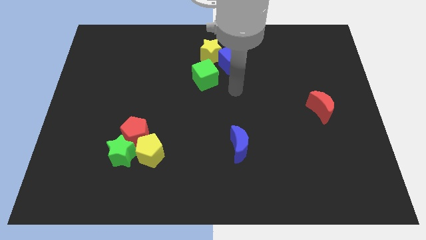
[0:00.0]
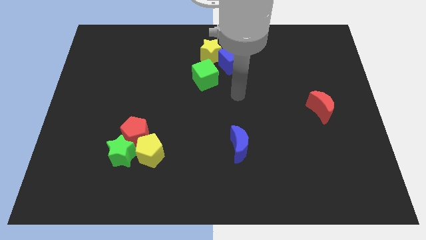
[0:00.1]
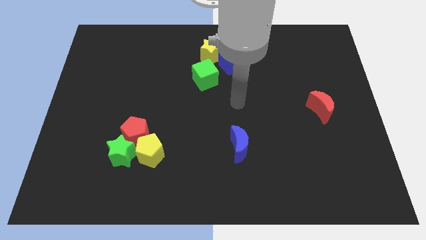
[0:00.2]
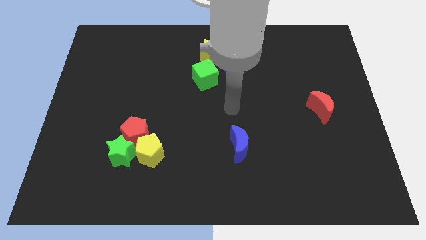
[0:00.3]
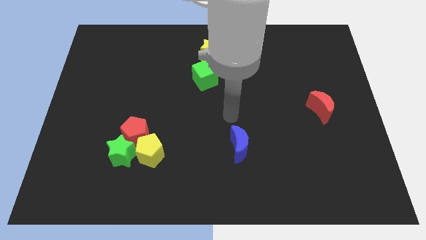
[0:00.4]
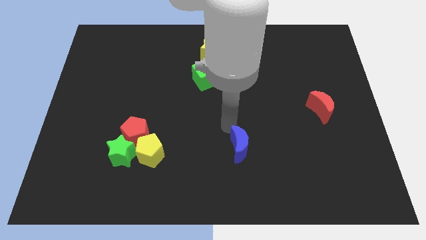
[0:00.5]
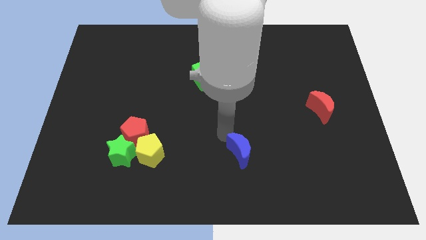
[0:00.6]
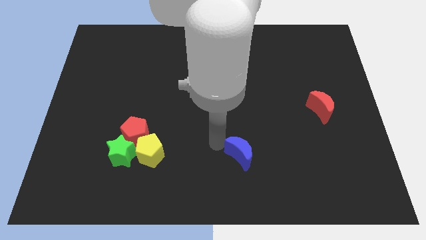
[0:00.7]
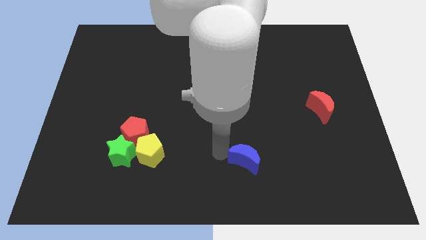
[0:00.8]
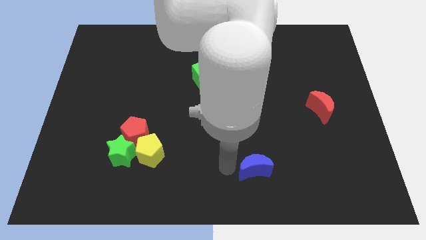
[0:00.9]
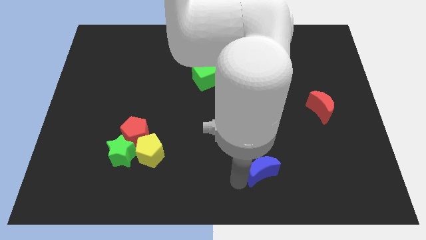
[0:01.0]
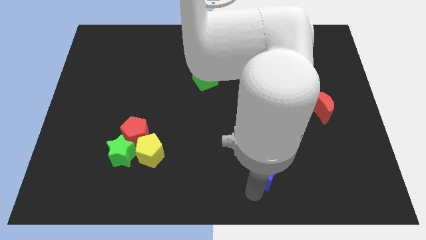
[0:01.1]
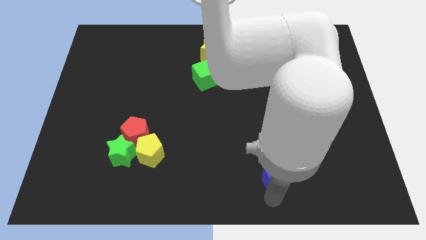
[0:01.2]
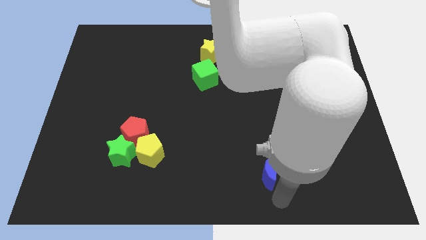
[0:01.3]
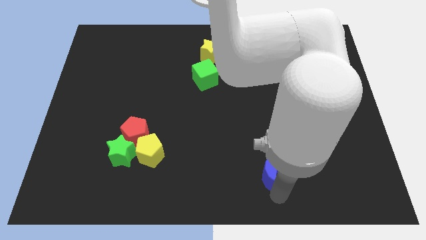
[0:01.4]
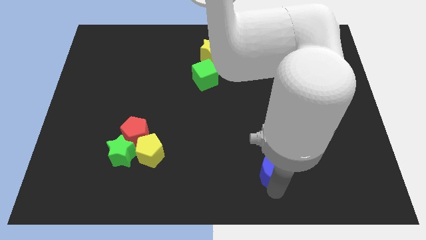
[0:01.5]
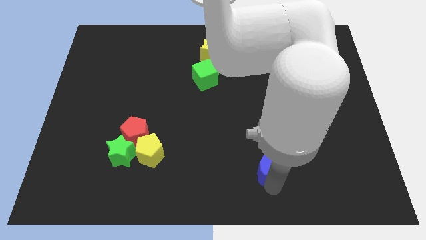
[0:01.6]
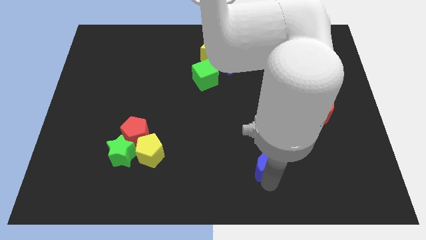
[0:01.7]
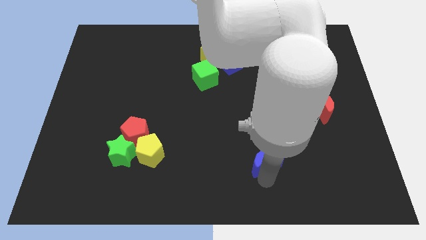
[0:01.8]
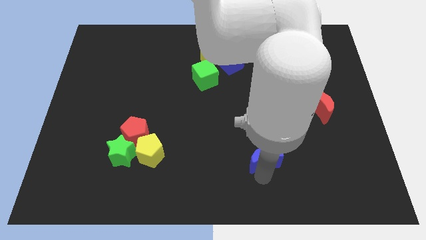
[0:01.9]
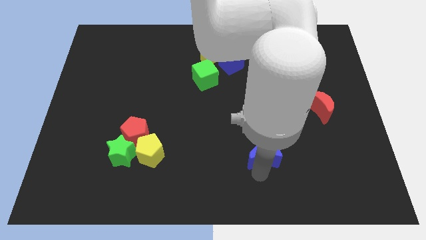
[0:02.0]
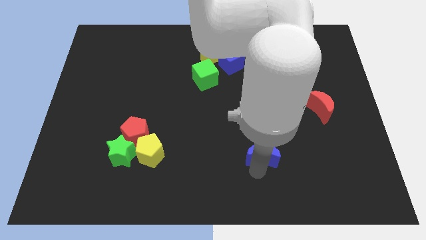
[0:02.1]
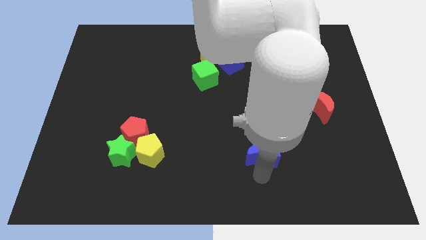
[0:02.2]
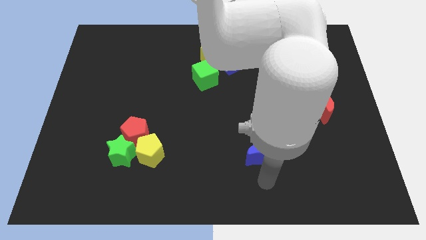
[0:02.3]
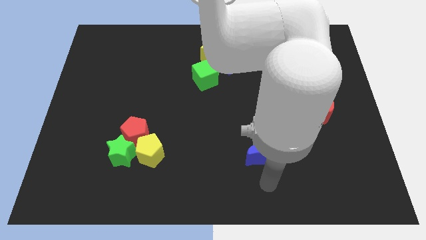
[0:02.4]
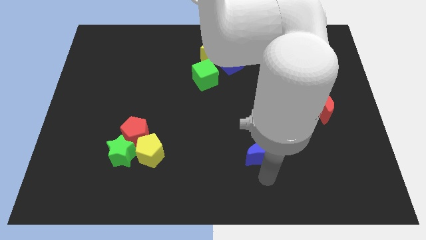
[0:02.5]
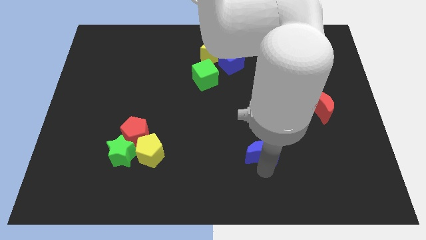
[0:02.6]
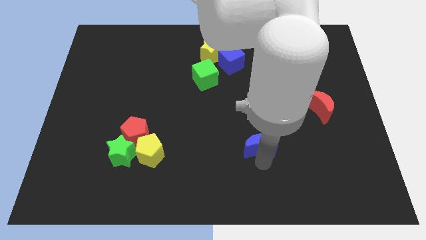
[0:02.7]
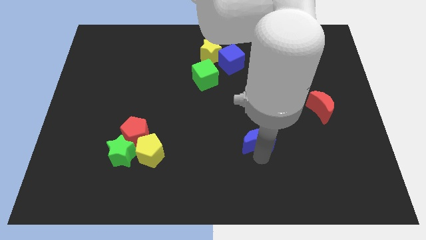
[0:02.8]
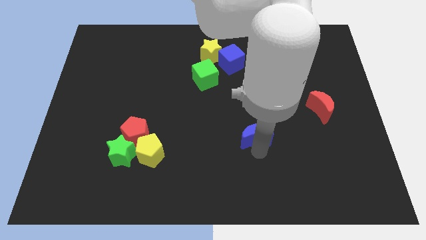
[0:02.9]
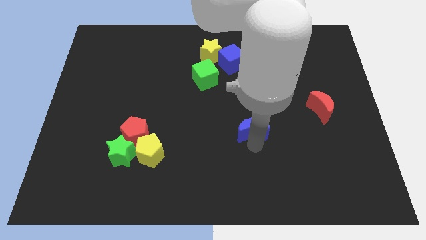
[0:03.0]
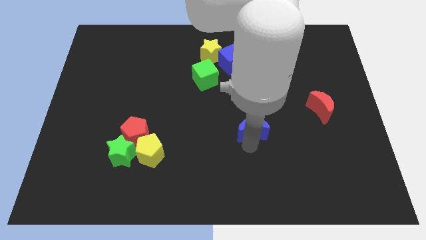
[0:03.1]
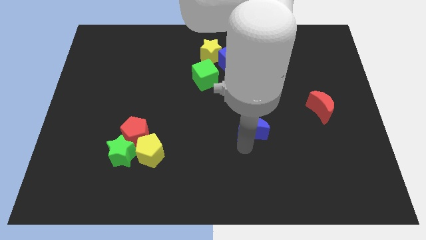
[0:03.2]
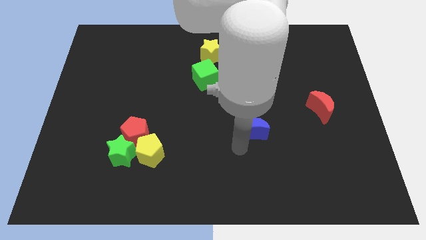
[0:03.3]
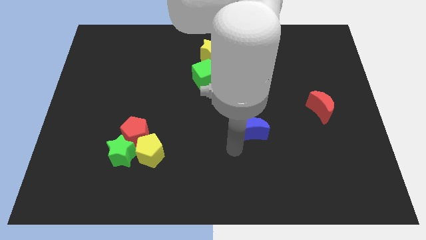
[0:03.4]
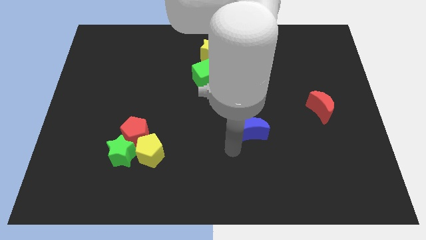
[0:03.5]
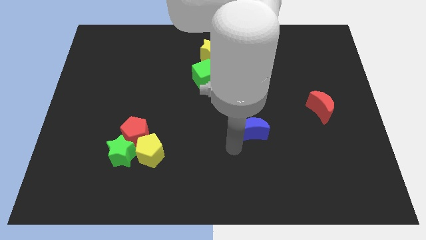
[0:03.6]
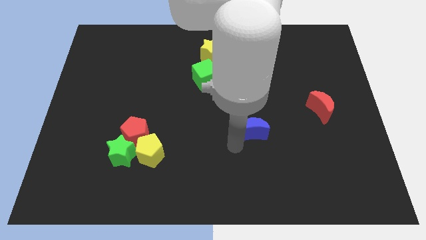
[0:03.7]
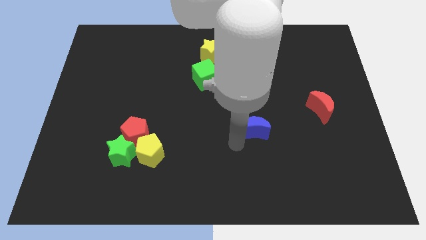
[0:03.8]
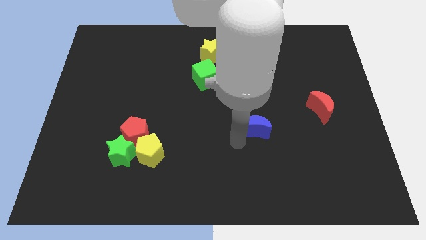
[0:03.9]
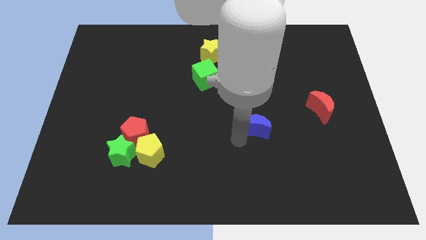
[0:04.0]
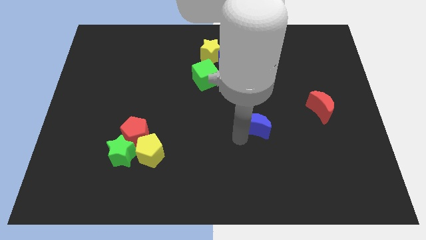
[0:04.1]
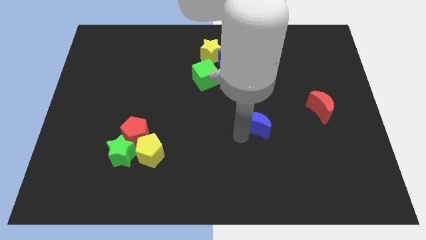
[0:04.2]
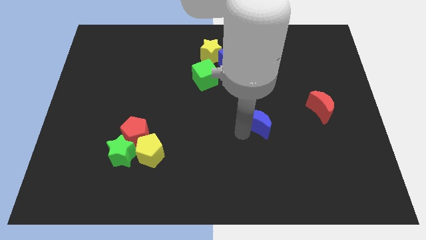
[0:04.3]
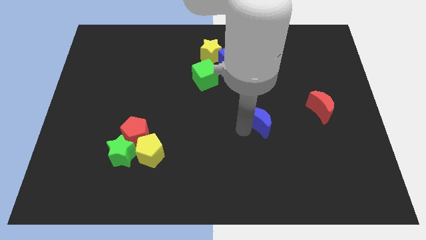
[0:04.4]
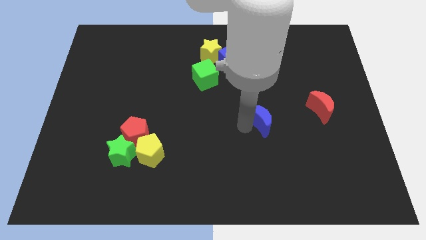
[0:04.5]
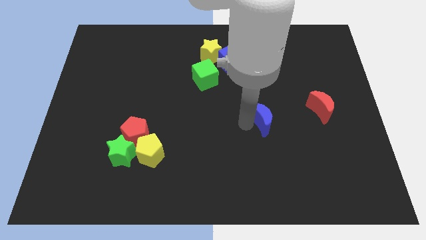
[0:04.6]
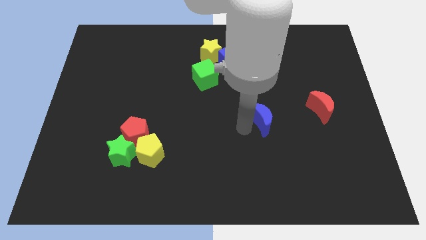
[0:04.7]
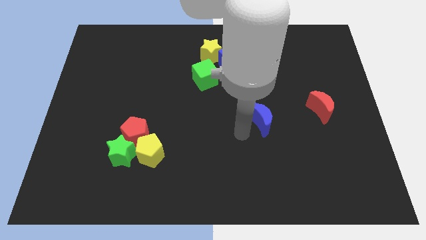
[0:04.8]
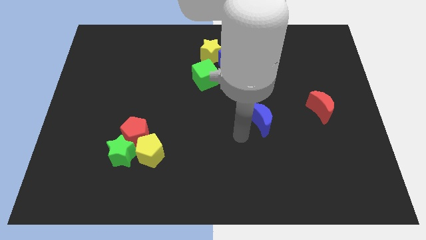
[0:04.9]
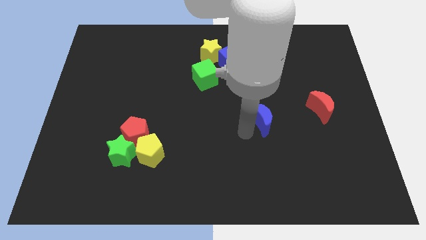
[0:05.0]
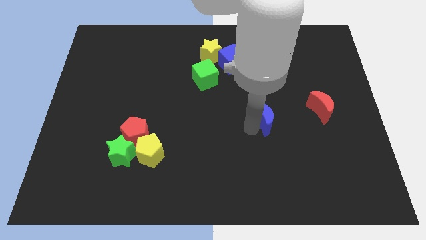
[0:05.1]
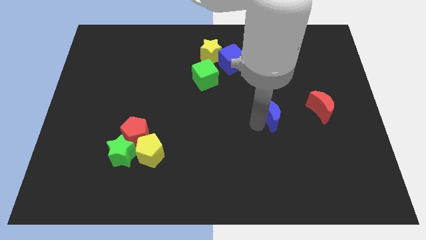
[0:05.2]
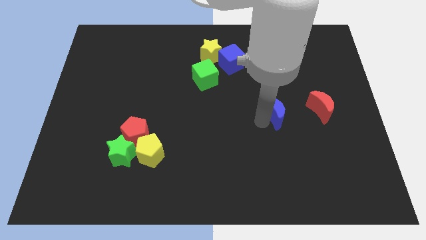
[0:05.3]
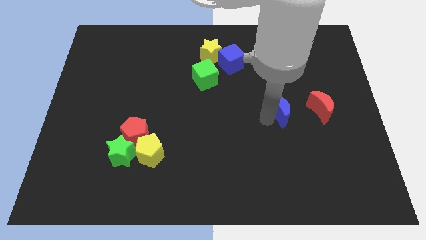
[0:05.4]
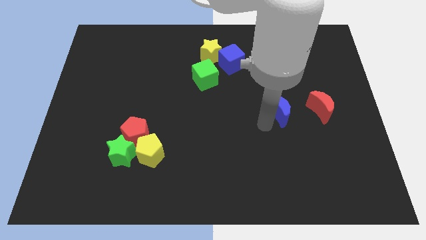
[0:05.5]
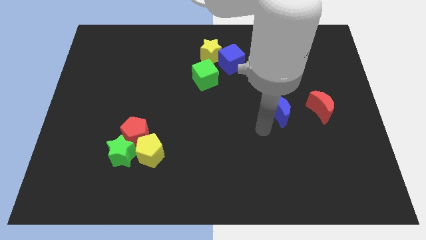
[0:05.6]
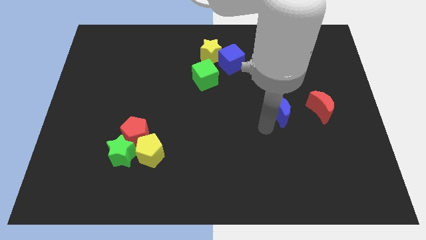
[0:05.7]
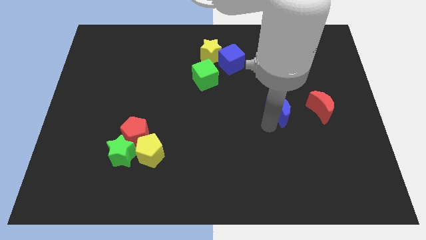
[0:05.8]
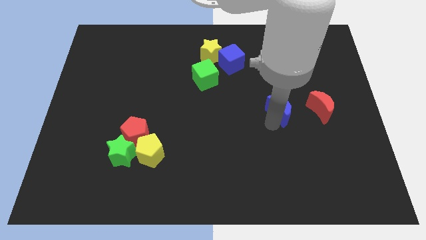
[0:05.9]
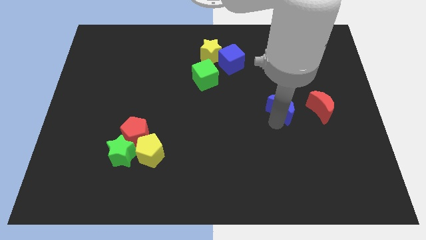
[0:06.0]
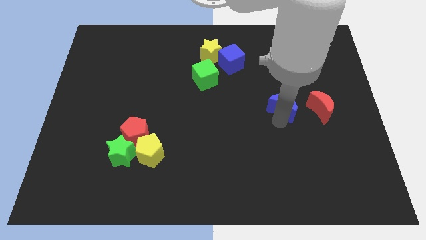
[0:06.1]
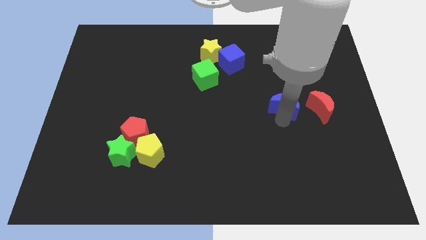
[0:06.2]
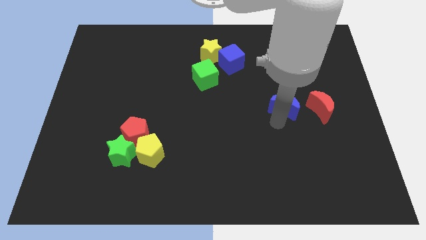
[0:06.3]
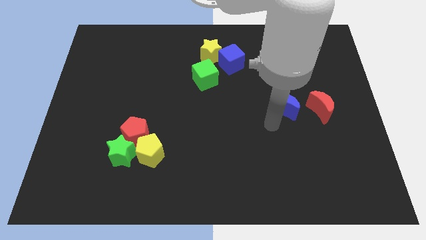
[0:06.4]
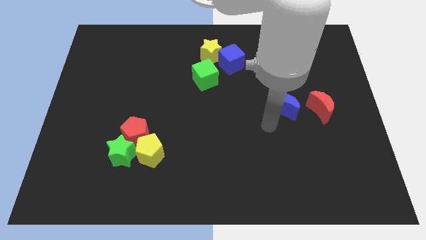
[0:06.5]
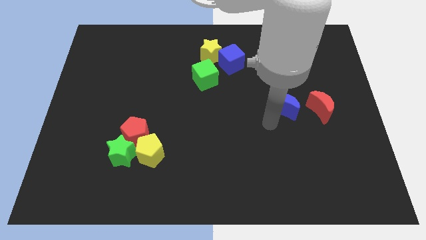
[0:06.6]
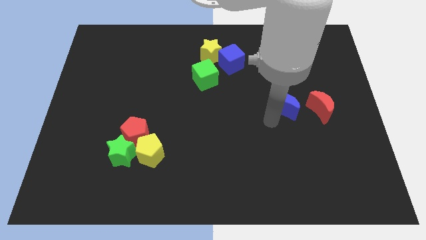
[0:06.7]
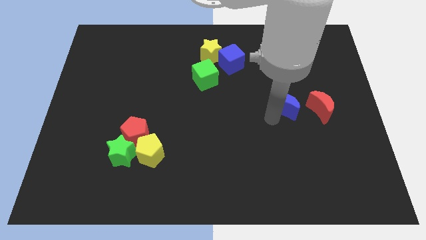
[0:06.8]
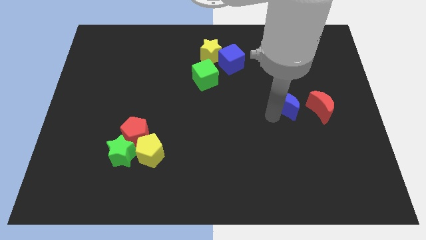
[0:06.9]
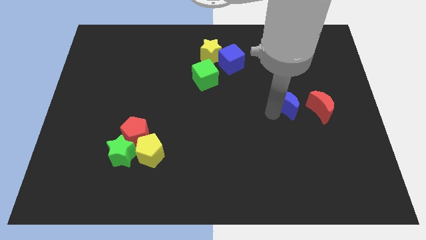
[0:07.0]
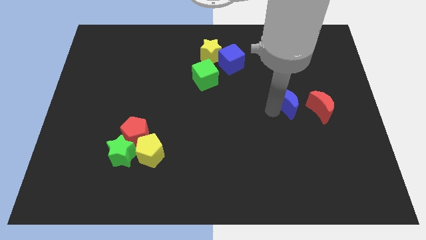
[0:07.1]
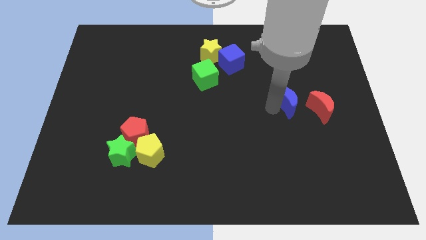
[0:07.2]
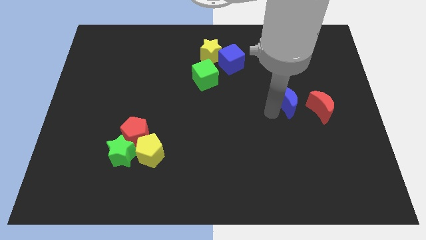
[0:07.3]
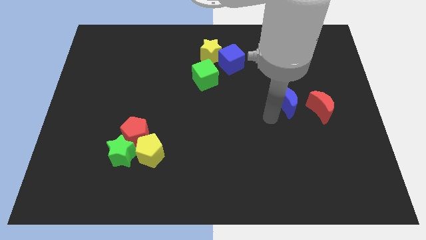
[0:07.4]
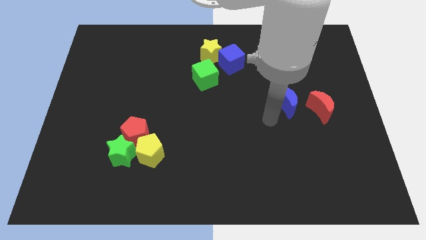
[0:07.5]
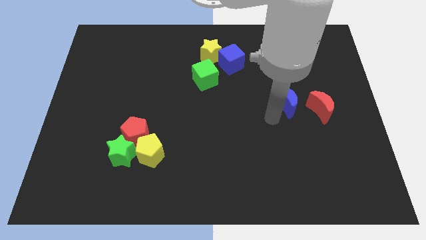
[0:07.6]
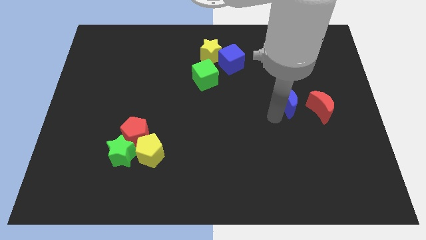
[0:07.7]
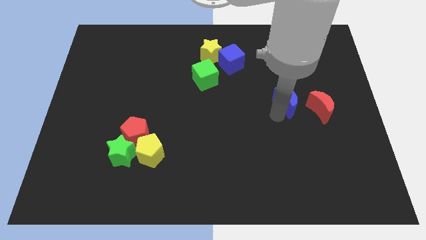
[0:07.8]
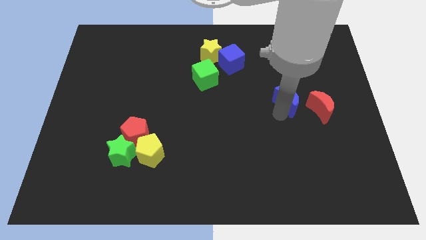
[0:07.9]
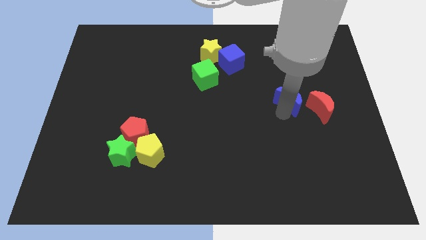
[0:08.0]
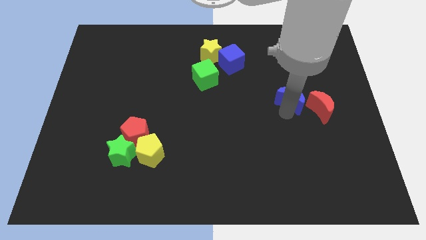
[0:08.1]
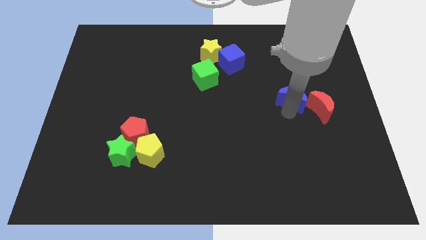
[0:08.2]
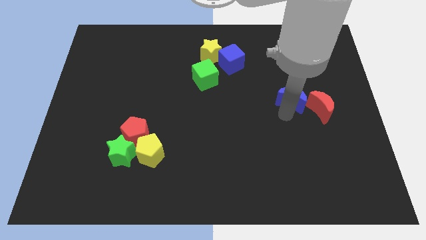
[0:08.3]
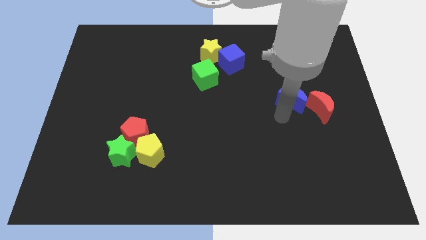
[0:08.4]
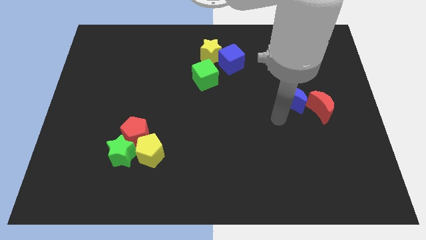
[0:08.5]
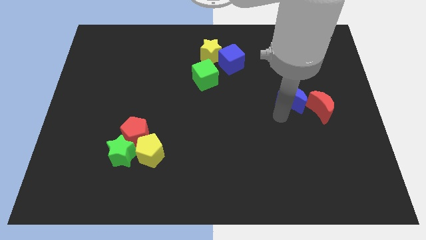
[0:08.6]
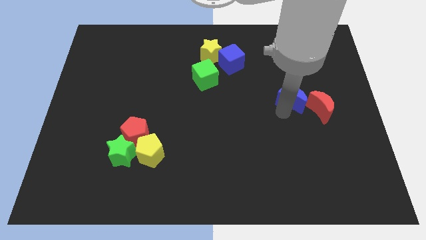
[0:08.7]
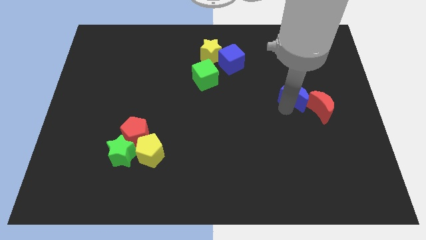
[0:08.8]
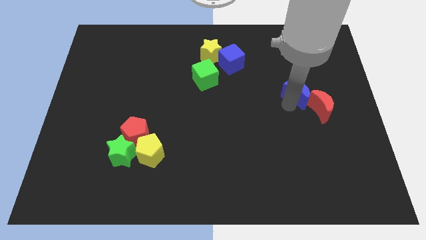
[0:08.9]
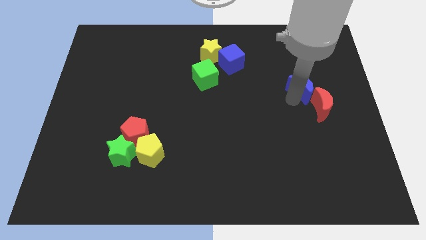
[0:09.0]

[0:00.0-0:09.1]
push the blue moon above the red moon
